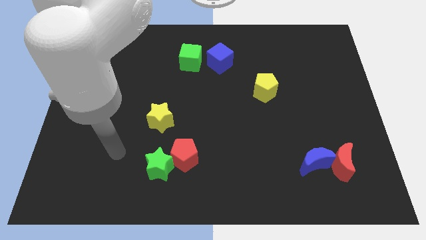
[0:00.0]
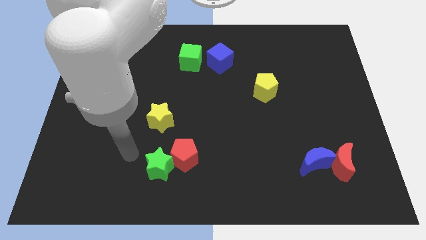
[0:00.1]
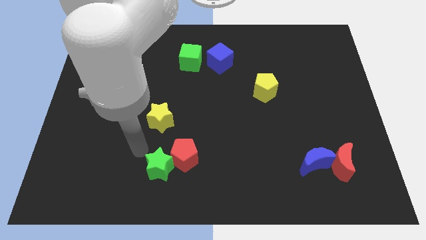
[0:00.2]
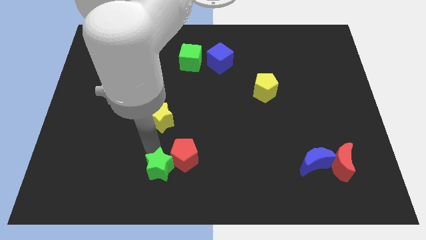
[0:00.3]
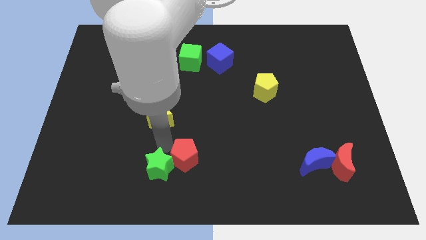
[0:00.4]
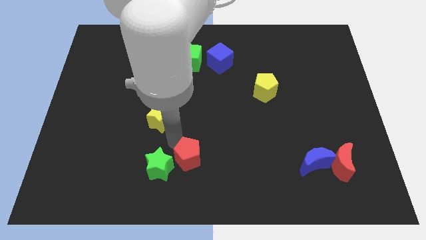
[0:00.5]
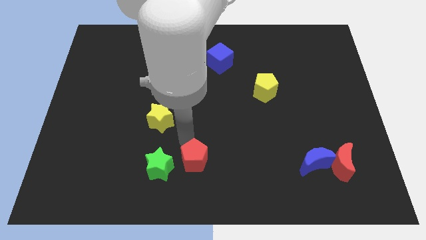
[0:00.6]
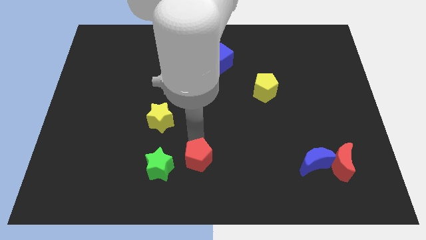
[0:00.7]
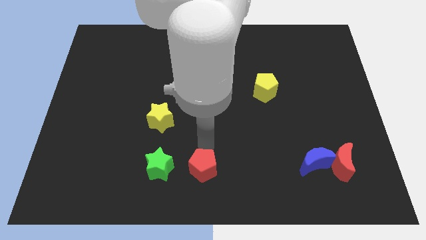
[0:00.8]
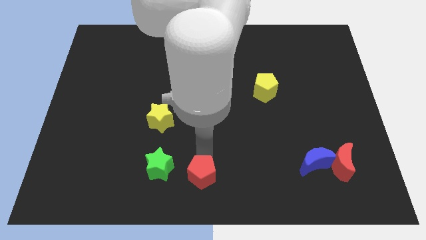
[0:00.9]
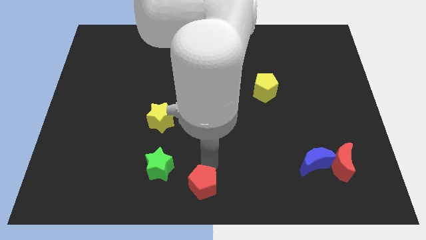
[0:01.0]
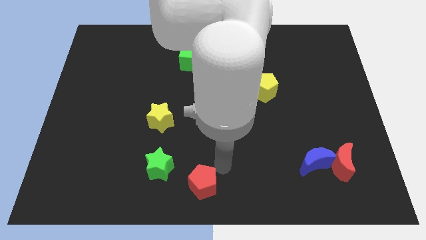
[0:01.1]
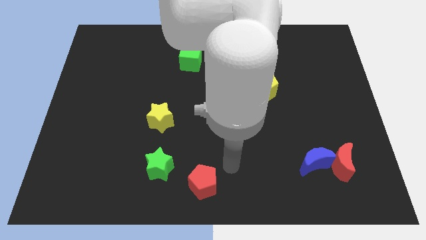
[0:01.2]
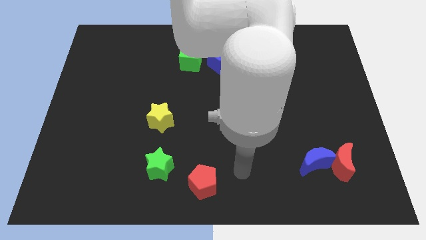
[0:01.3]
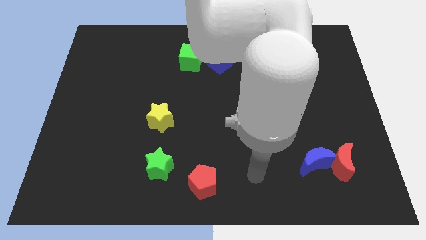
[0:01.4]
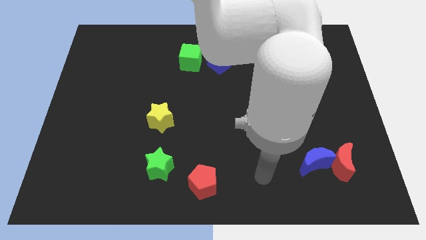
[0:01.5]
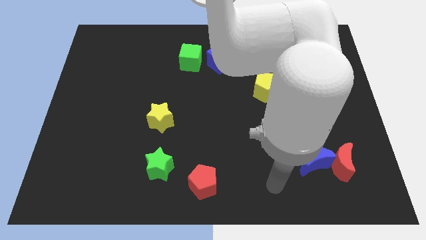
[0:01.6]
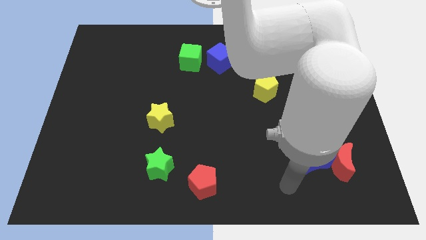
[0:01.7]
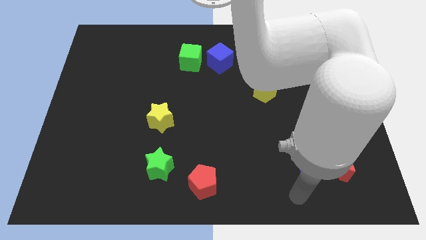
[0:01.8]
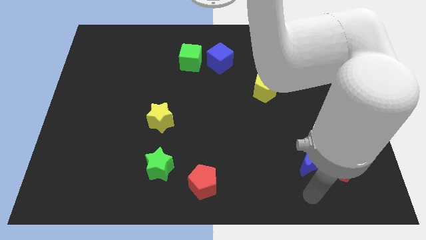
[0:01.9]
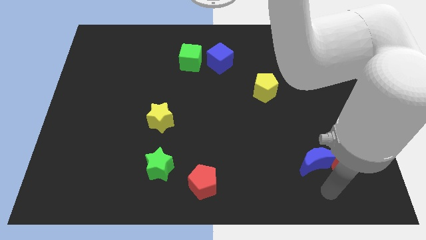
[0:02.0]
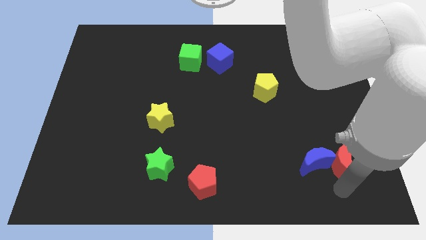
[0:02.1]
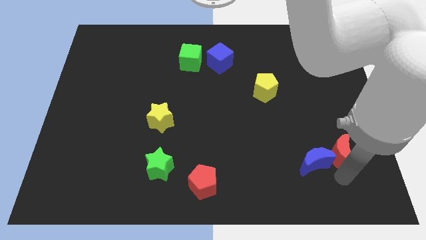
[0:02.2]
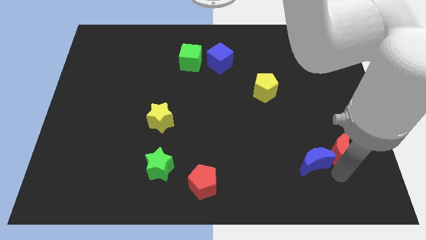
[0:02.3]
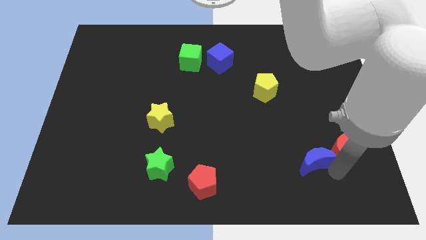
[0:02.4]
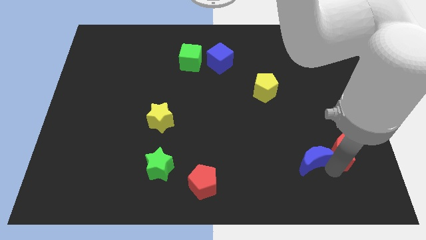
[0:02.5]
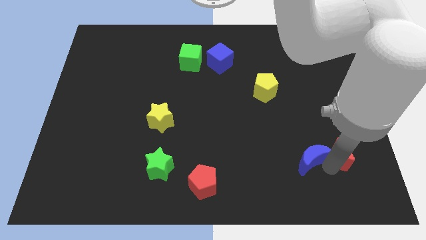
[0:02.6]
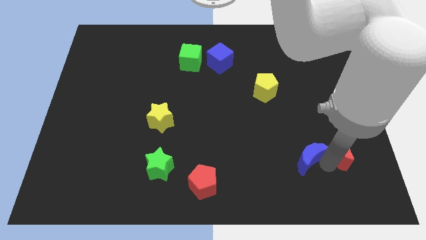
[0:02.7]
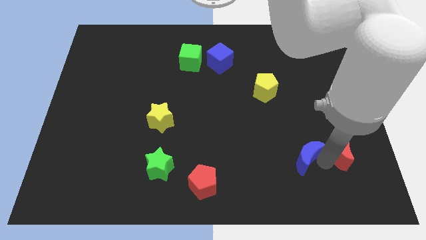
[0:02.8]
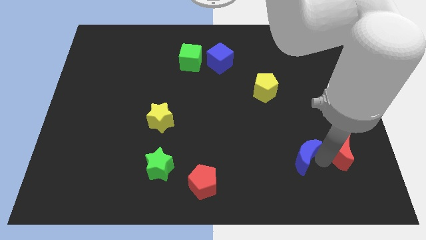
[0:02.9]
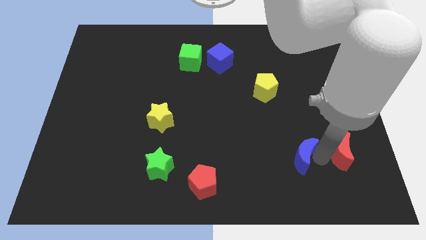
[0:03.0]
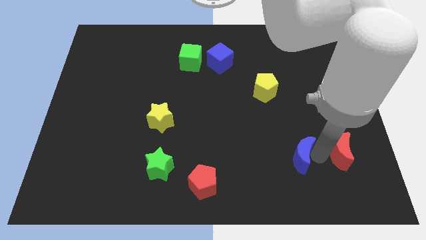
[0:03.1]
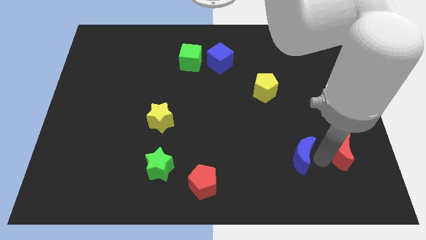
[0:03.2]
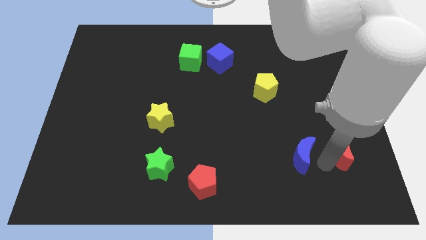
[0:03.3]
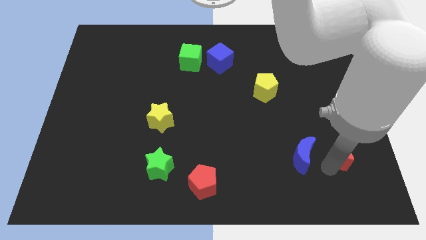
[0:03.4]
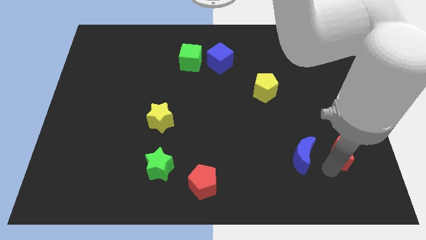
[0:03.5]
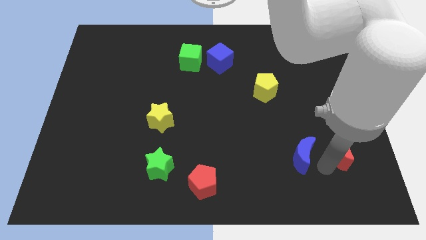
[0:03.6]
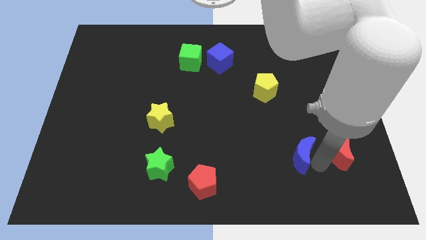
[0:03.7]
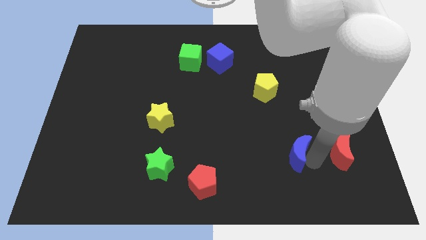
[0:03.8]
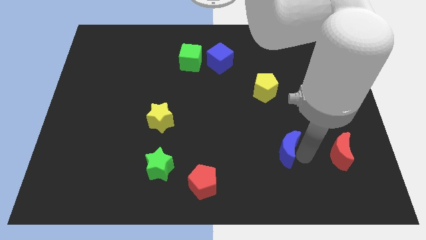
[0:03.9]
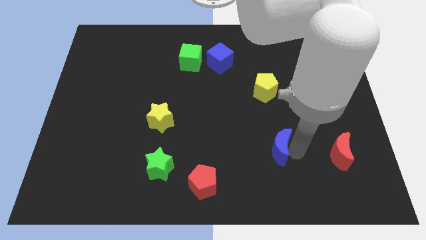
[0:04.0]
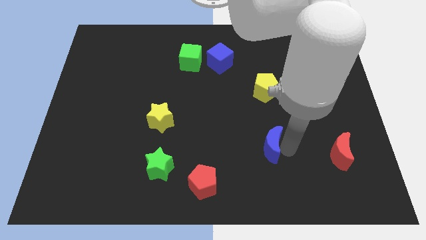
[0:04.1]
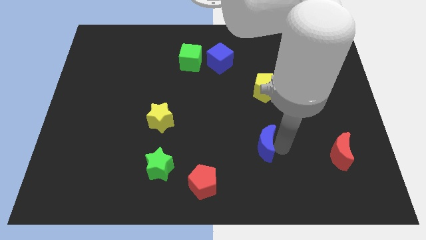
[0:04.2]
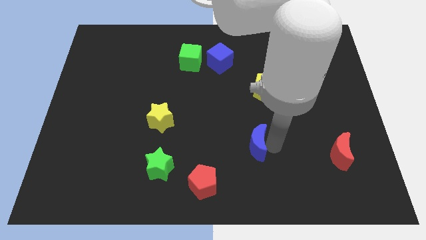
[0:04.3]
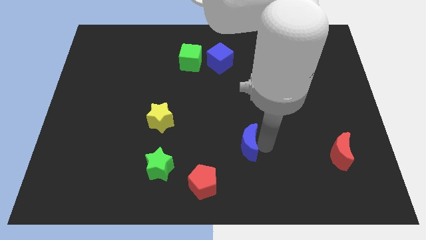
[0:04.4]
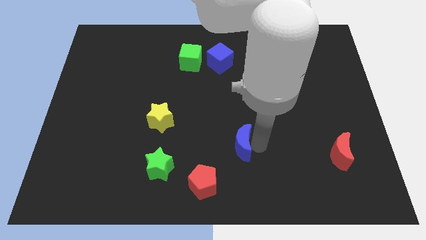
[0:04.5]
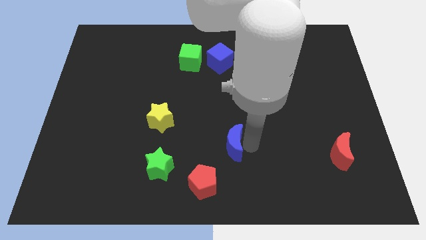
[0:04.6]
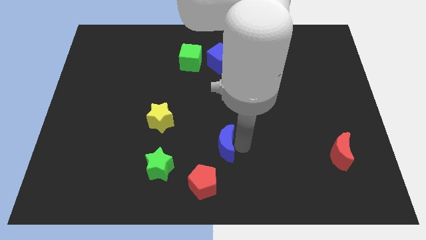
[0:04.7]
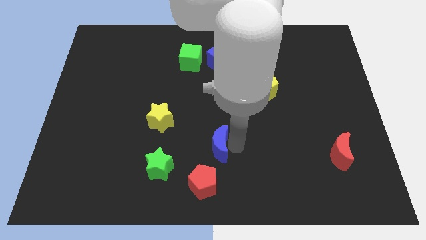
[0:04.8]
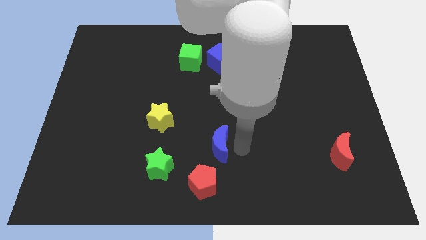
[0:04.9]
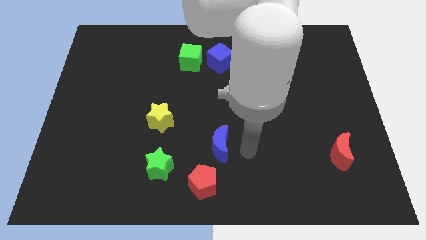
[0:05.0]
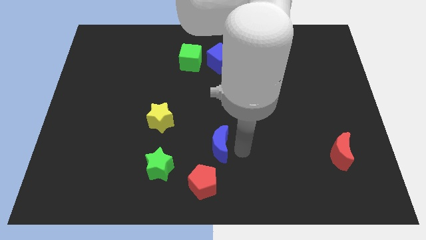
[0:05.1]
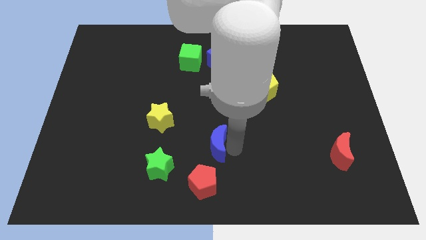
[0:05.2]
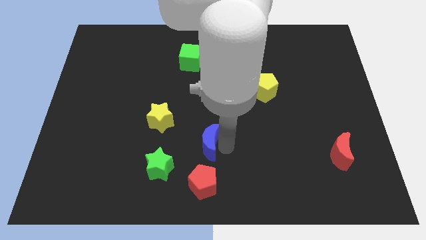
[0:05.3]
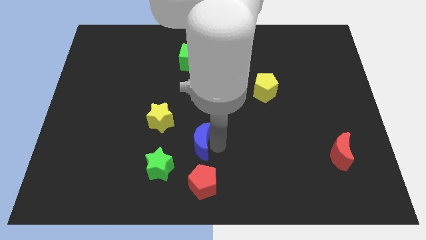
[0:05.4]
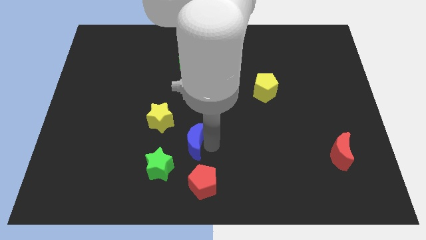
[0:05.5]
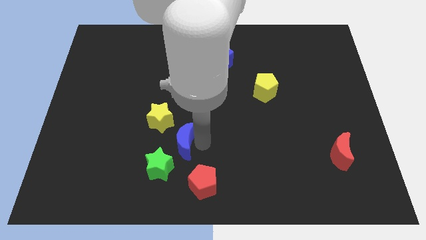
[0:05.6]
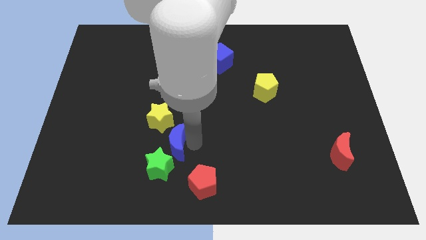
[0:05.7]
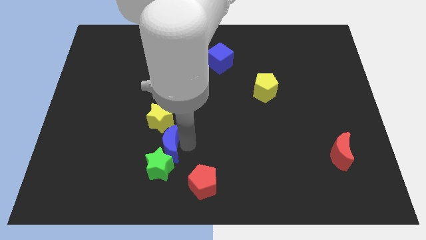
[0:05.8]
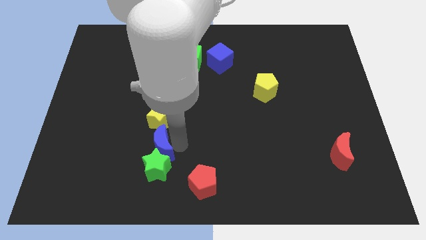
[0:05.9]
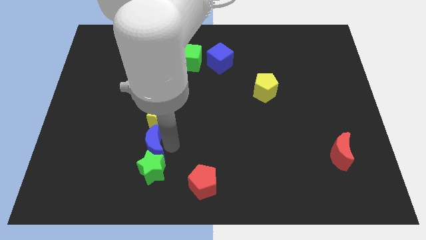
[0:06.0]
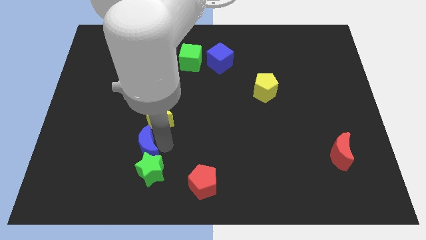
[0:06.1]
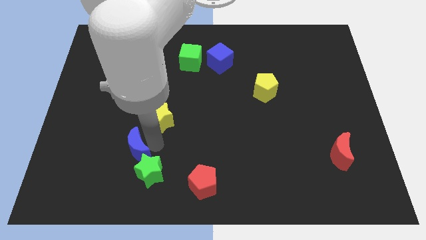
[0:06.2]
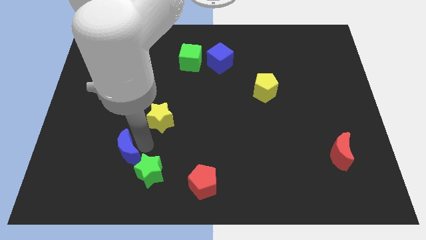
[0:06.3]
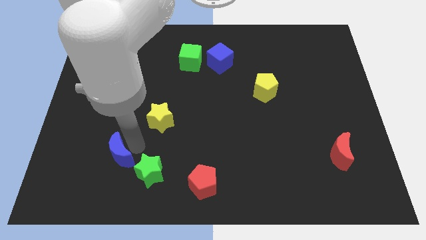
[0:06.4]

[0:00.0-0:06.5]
put the blue moon to the left of the green star
